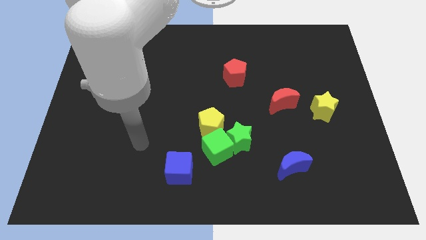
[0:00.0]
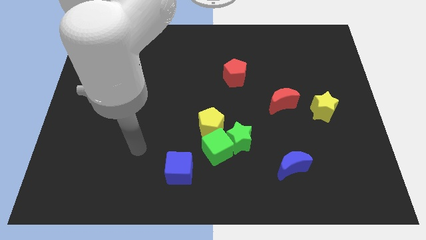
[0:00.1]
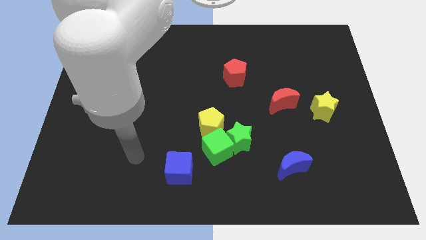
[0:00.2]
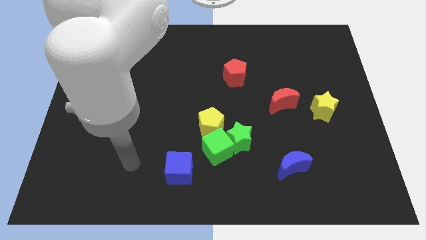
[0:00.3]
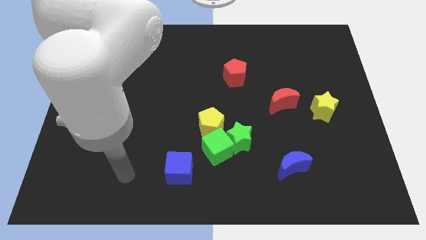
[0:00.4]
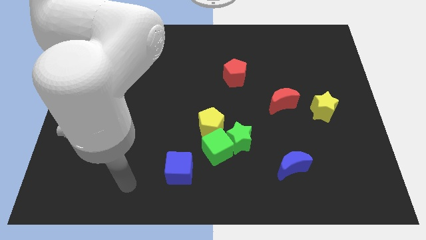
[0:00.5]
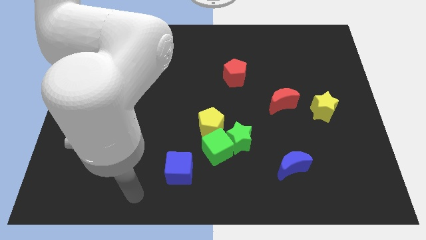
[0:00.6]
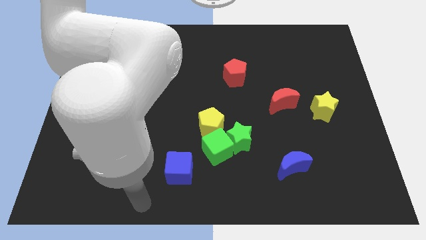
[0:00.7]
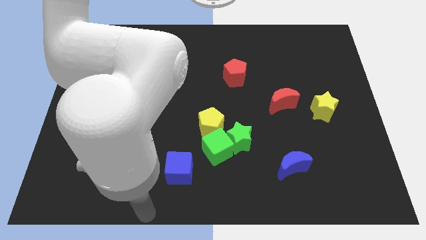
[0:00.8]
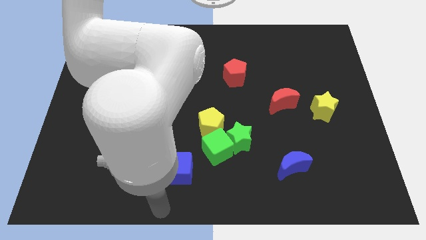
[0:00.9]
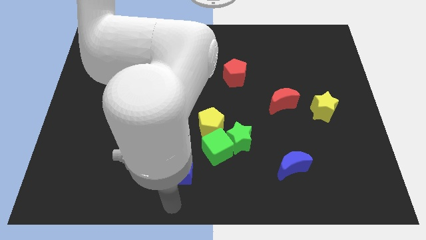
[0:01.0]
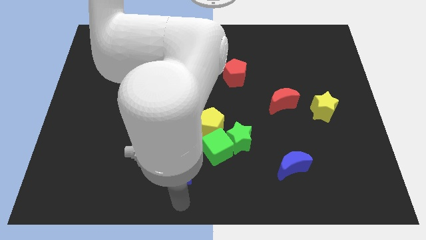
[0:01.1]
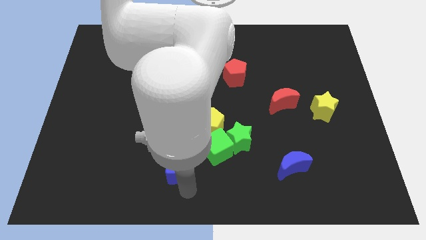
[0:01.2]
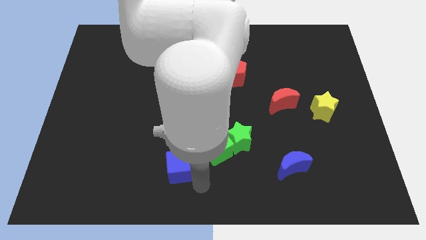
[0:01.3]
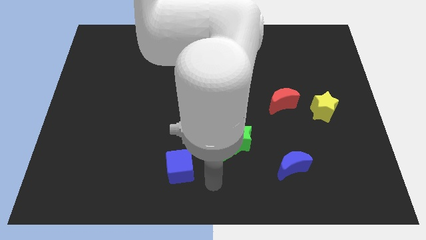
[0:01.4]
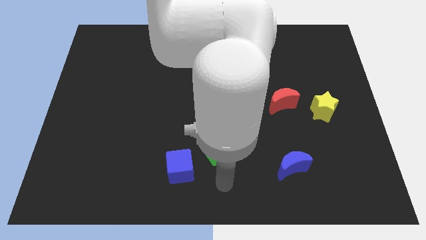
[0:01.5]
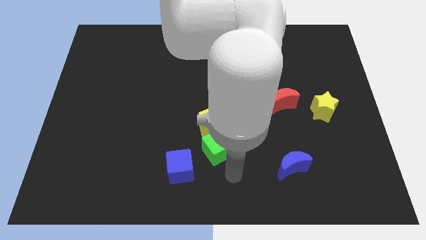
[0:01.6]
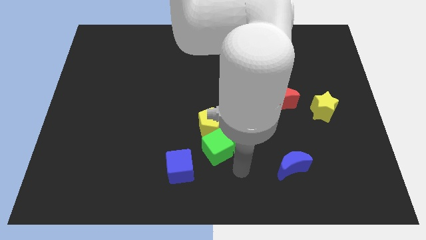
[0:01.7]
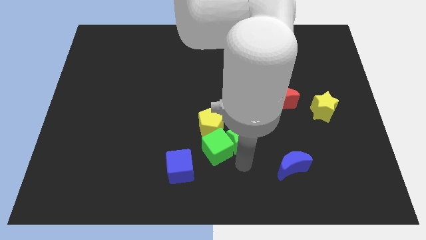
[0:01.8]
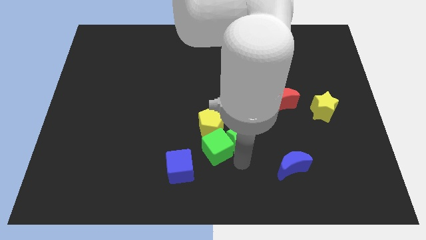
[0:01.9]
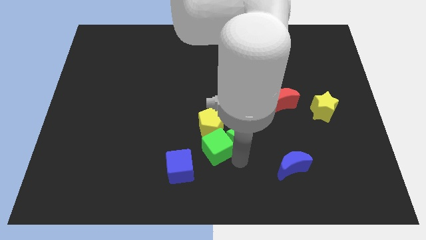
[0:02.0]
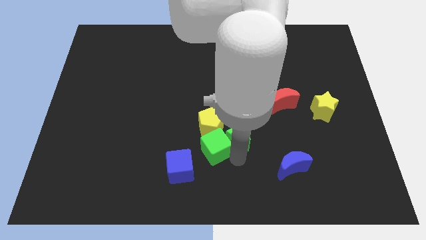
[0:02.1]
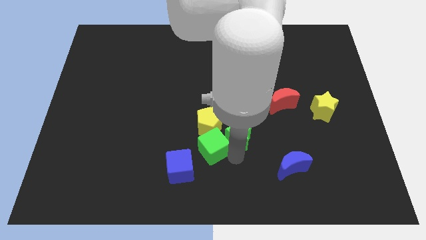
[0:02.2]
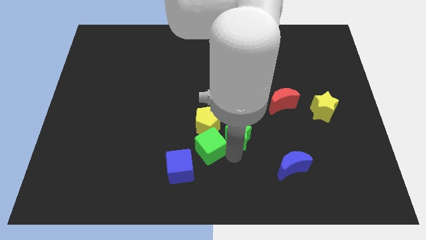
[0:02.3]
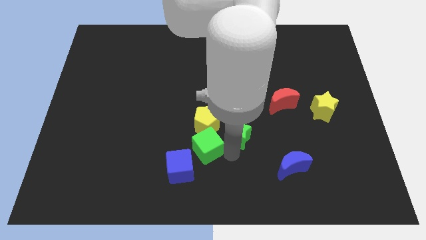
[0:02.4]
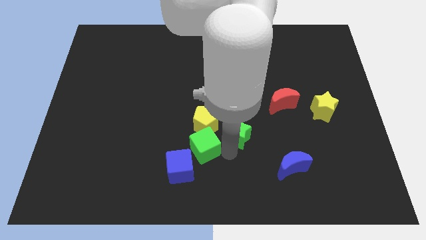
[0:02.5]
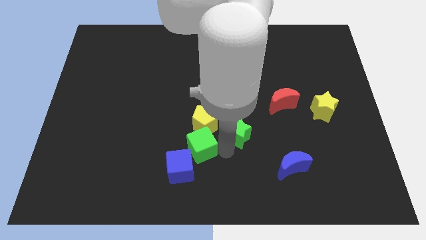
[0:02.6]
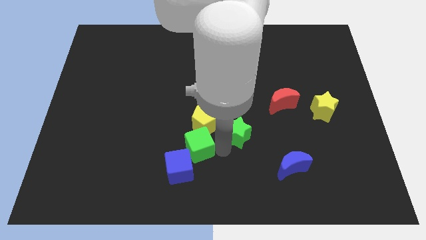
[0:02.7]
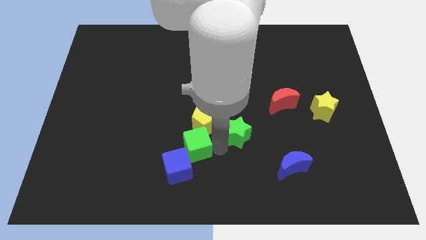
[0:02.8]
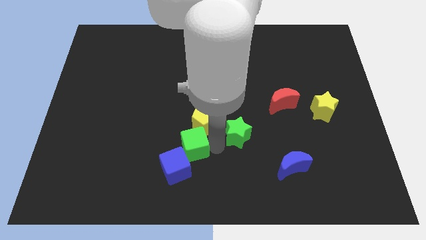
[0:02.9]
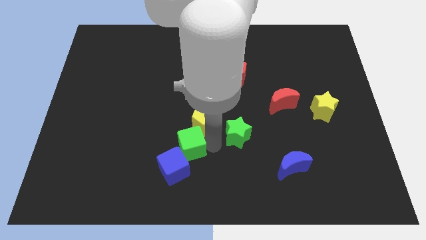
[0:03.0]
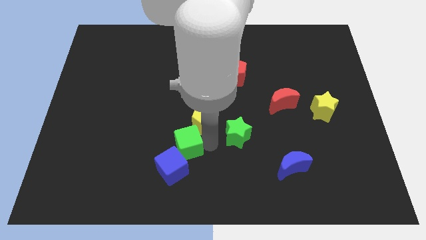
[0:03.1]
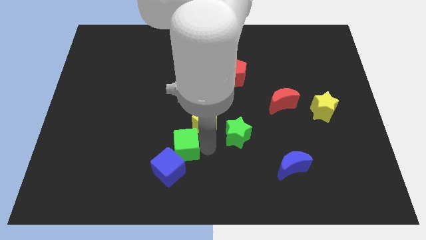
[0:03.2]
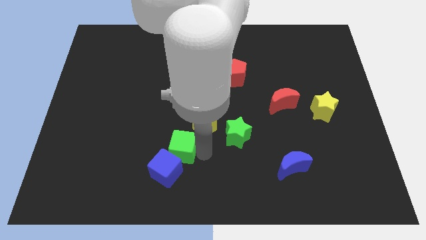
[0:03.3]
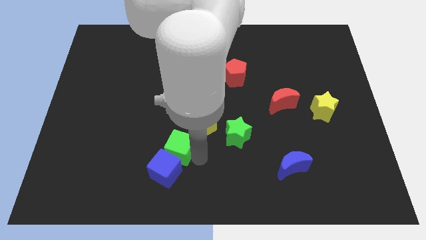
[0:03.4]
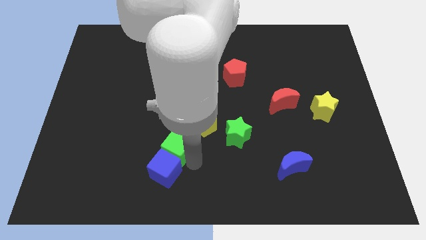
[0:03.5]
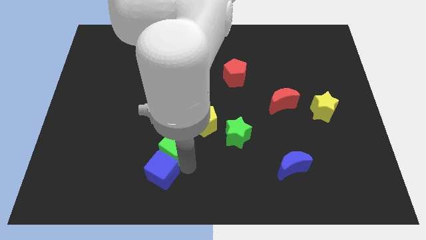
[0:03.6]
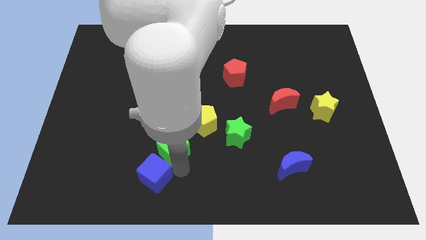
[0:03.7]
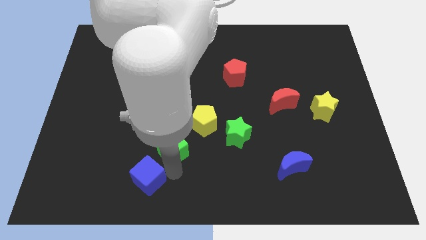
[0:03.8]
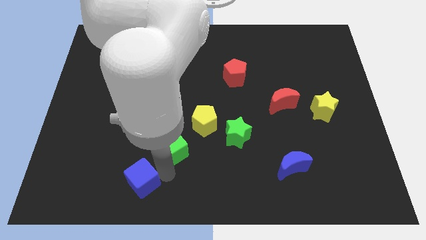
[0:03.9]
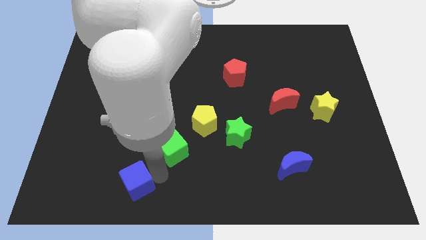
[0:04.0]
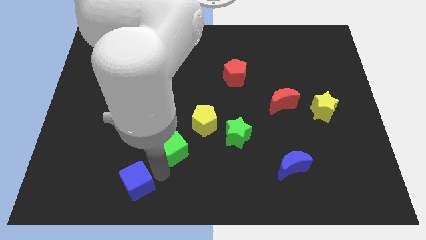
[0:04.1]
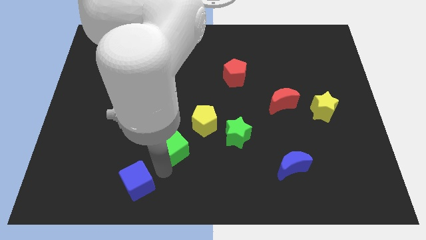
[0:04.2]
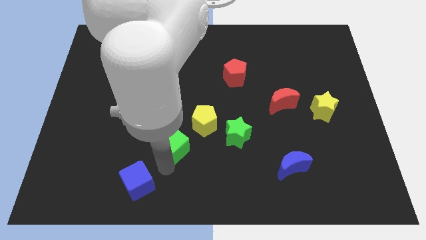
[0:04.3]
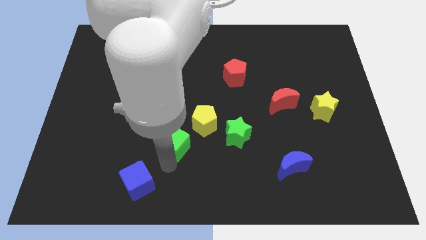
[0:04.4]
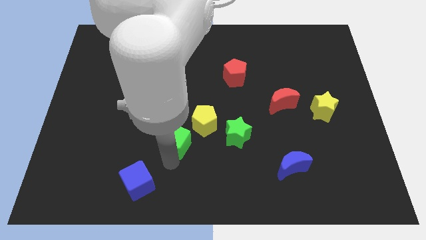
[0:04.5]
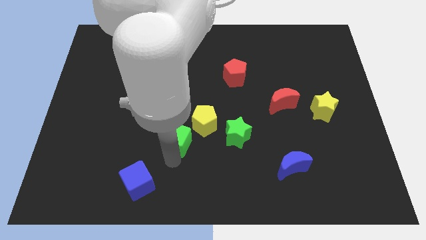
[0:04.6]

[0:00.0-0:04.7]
slide the green cube up and left diagonally a little

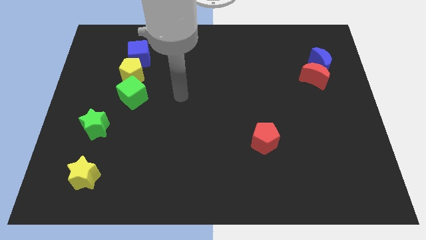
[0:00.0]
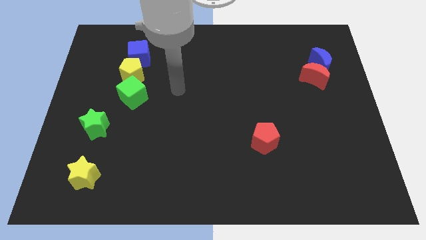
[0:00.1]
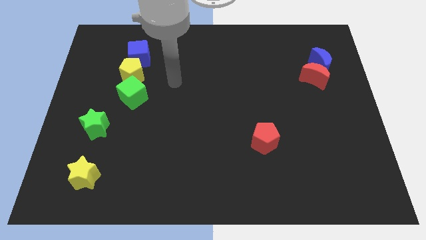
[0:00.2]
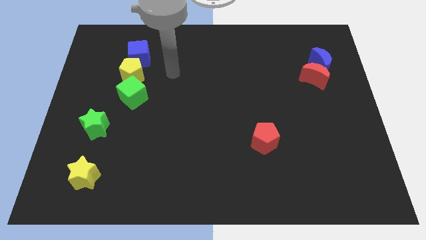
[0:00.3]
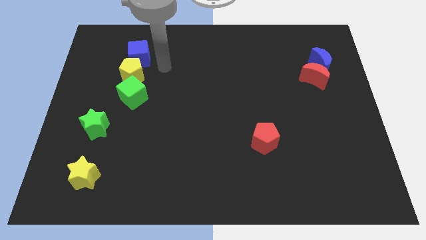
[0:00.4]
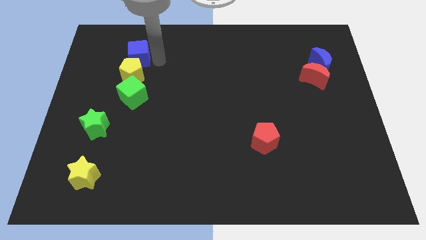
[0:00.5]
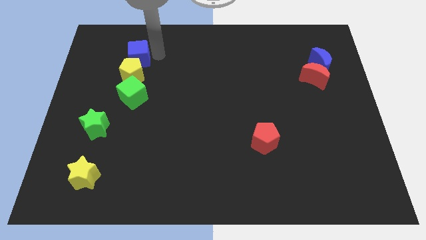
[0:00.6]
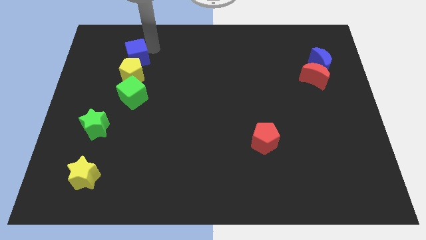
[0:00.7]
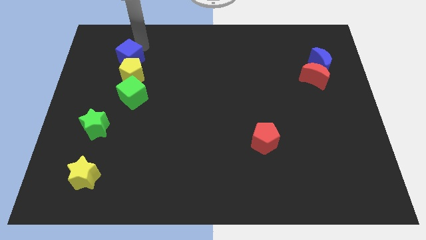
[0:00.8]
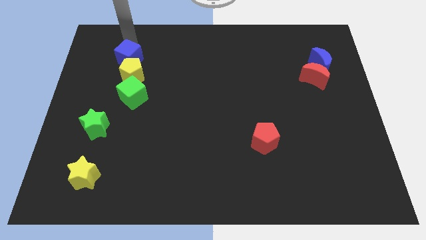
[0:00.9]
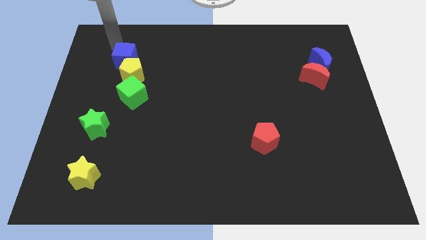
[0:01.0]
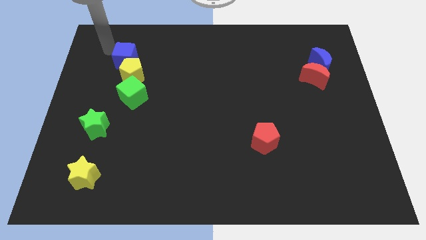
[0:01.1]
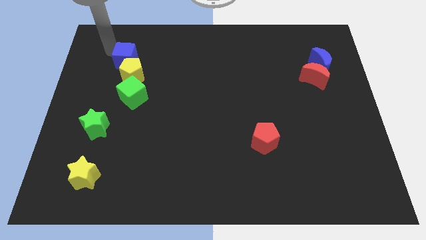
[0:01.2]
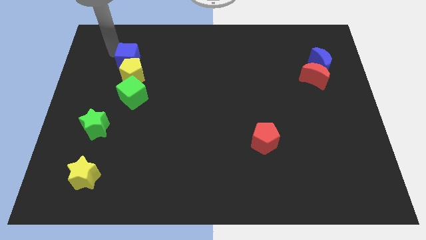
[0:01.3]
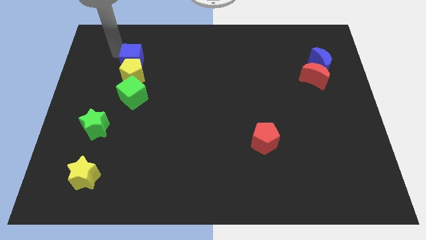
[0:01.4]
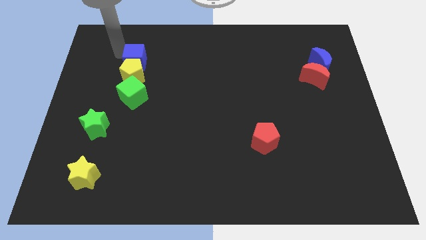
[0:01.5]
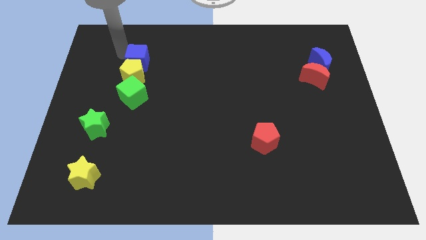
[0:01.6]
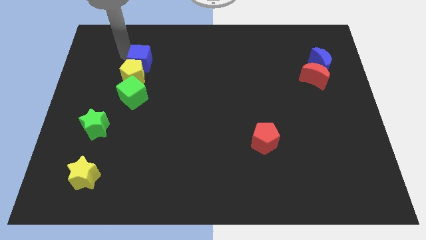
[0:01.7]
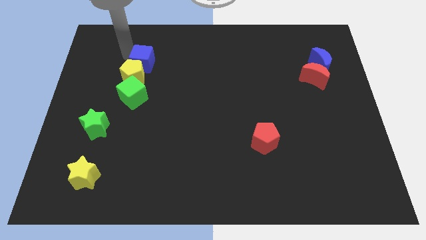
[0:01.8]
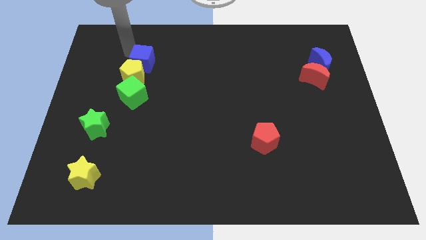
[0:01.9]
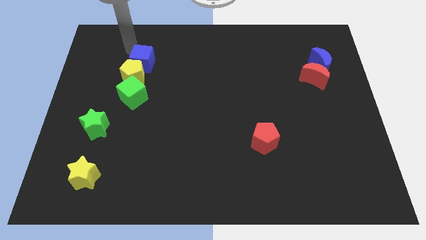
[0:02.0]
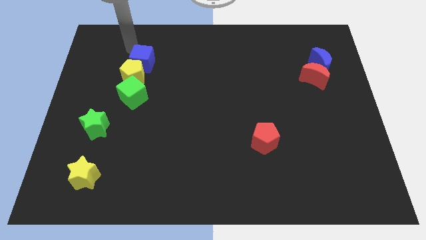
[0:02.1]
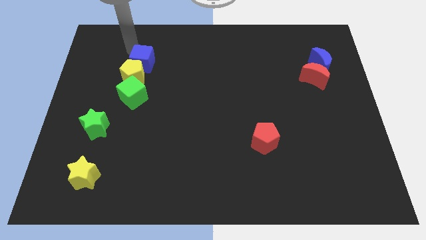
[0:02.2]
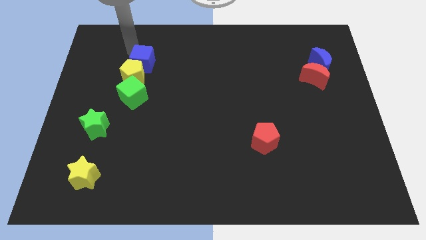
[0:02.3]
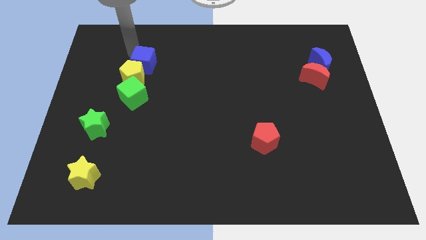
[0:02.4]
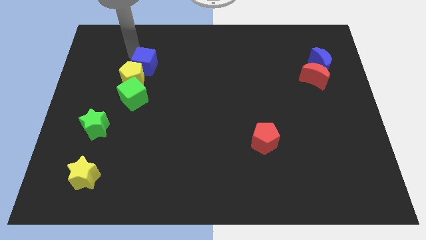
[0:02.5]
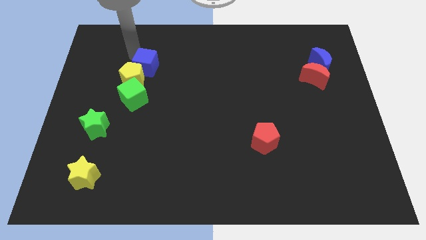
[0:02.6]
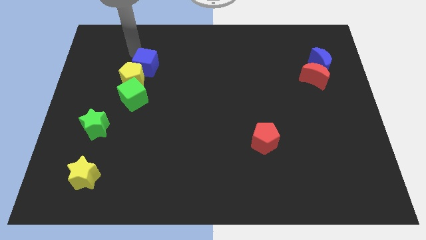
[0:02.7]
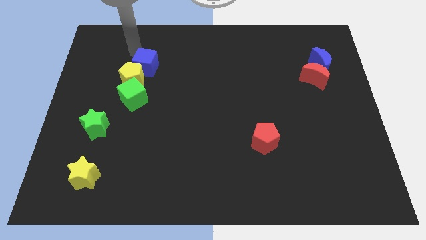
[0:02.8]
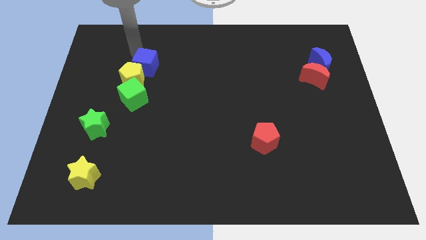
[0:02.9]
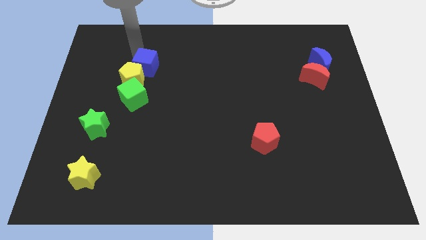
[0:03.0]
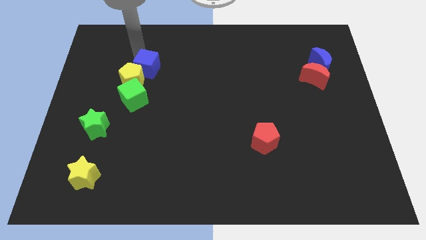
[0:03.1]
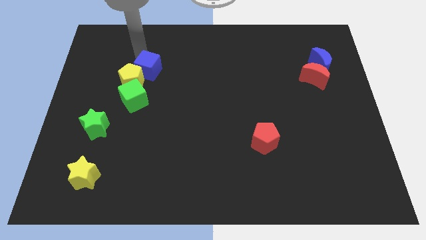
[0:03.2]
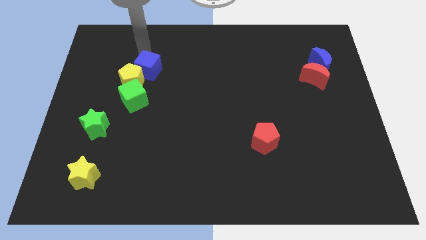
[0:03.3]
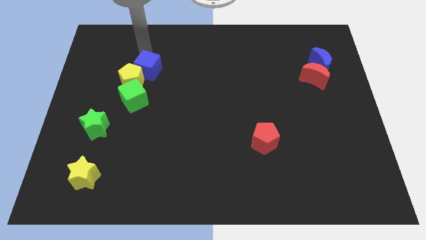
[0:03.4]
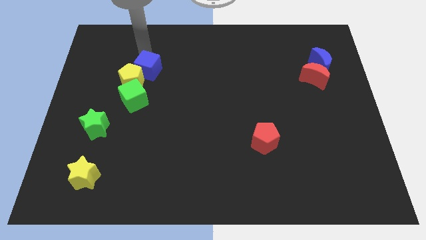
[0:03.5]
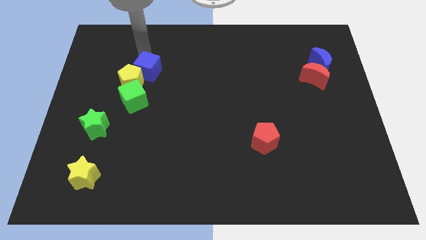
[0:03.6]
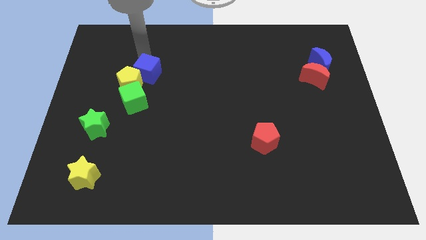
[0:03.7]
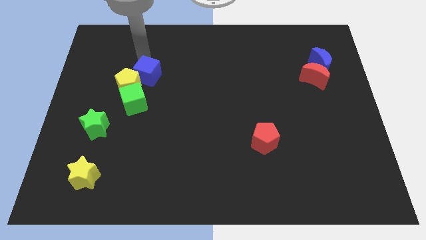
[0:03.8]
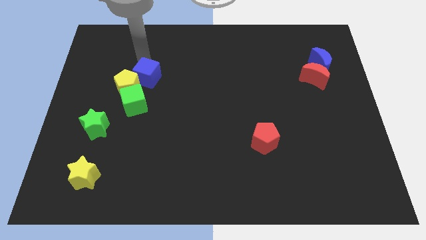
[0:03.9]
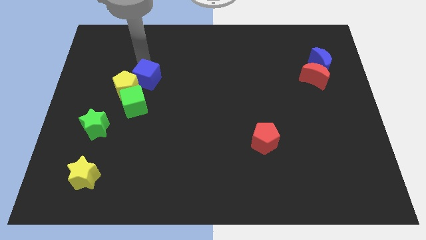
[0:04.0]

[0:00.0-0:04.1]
push the blue cube a little bit downwards
